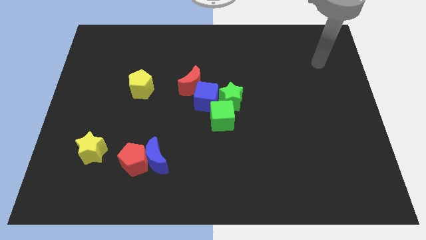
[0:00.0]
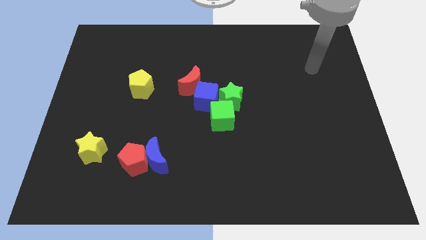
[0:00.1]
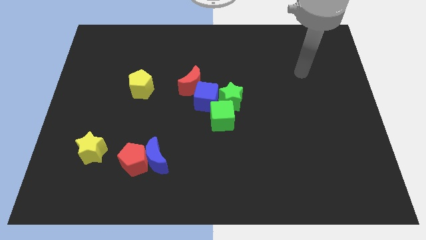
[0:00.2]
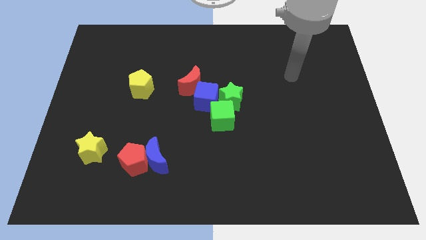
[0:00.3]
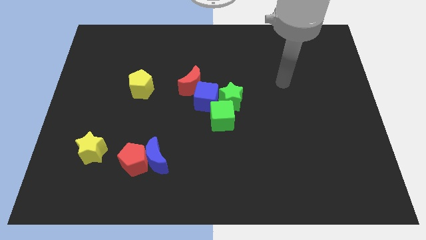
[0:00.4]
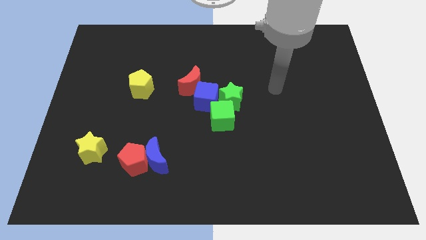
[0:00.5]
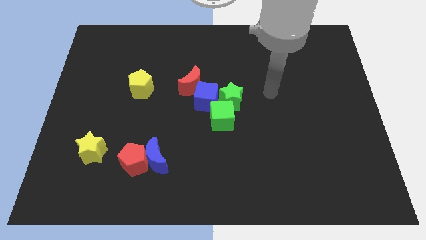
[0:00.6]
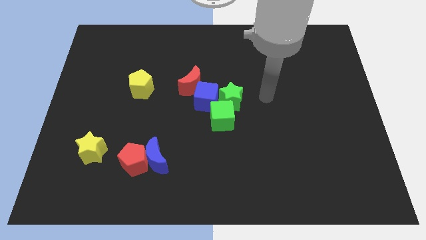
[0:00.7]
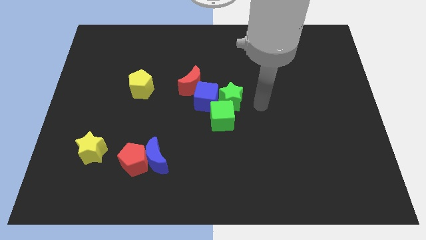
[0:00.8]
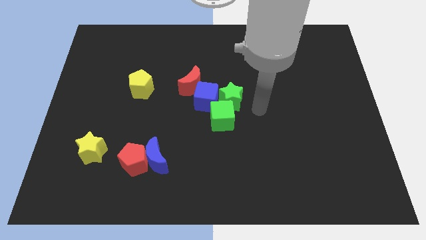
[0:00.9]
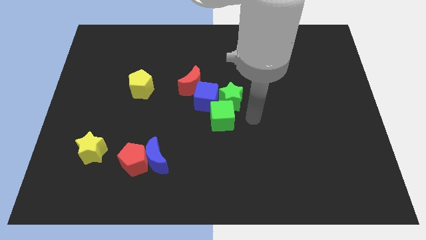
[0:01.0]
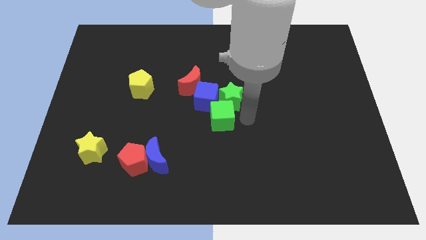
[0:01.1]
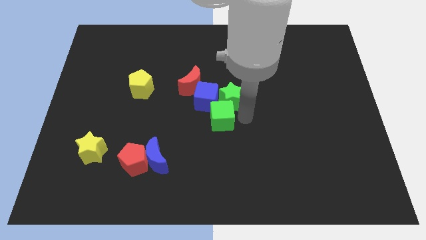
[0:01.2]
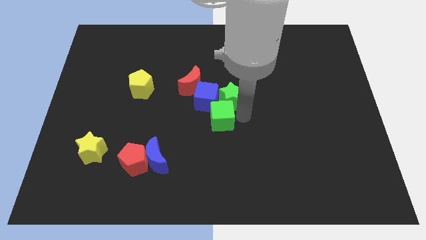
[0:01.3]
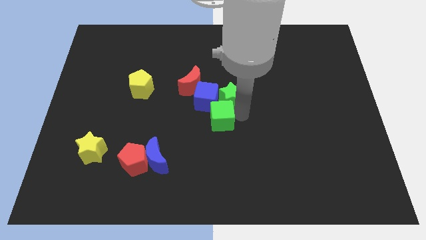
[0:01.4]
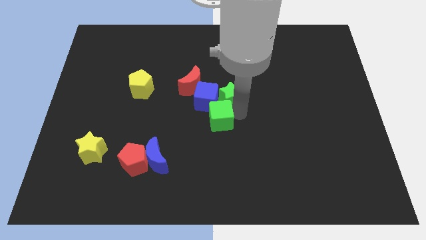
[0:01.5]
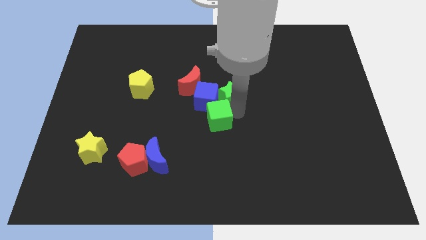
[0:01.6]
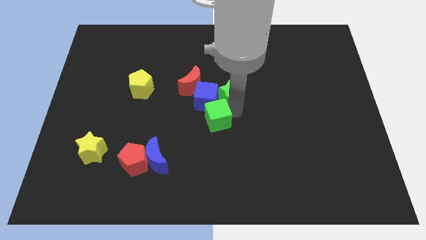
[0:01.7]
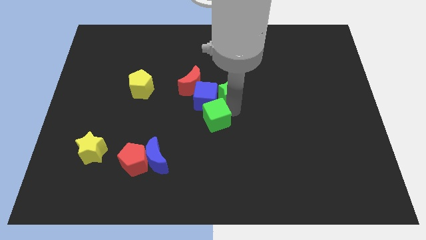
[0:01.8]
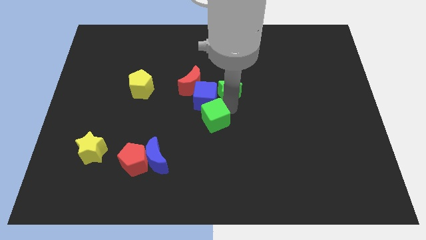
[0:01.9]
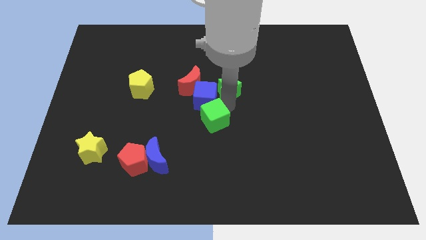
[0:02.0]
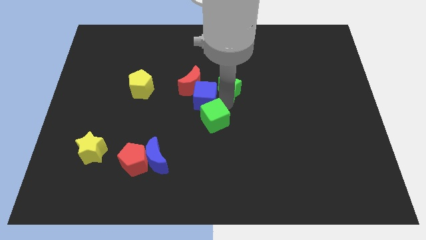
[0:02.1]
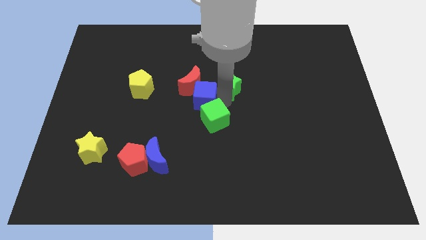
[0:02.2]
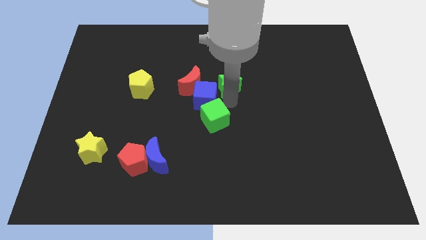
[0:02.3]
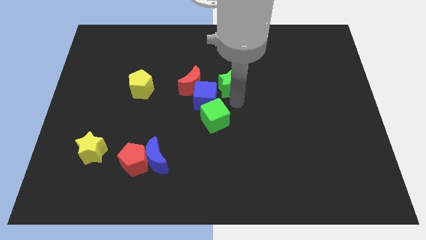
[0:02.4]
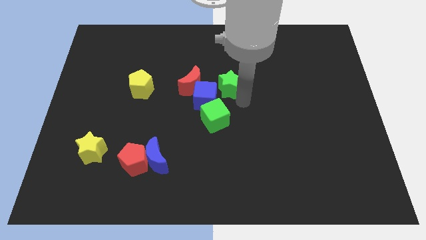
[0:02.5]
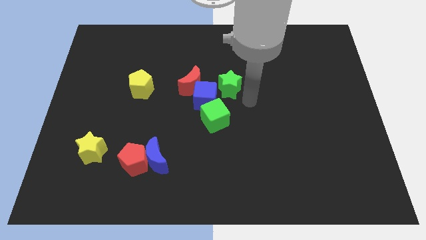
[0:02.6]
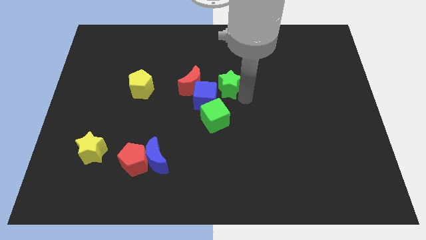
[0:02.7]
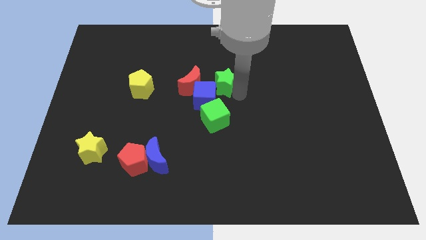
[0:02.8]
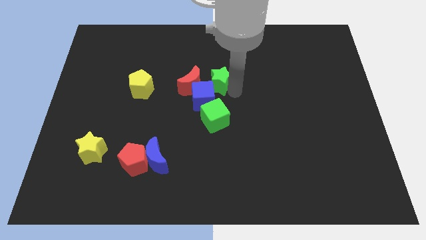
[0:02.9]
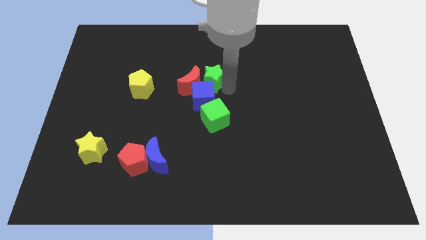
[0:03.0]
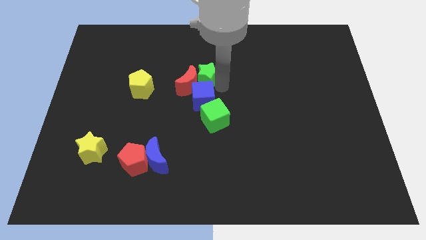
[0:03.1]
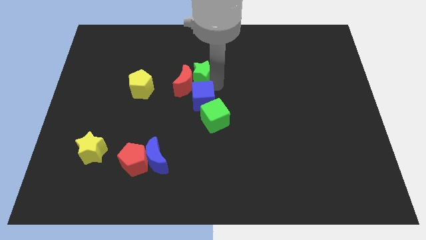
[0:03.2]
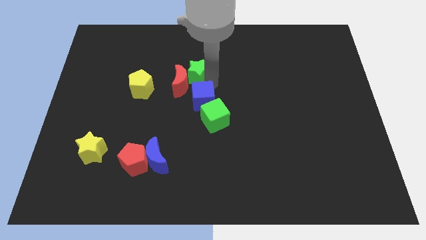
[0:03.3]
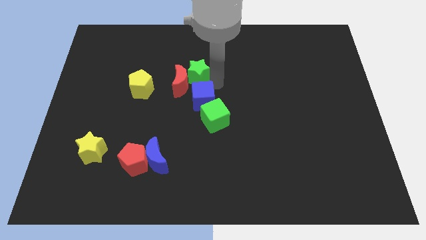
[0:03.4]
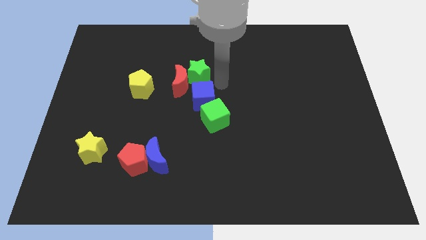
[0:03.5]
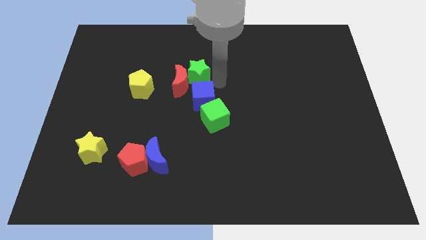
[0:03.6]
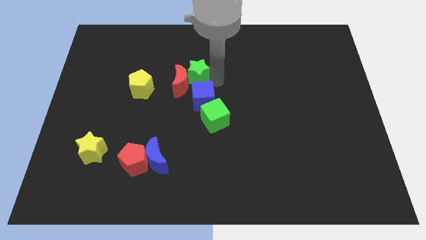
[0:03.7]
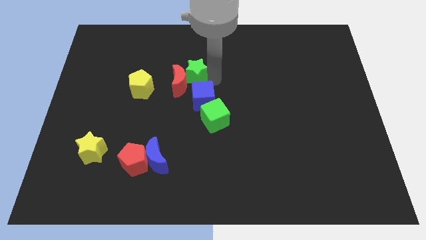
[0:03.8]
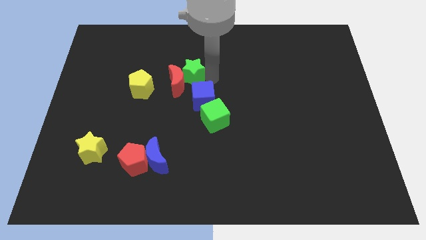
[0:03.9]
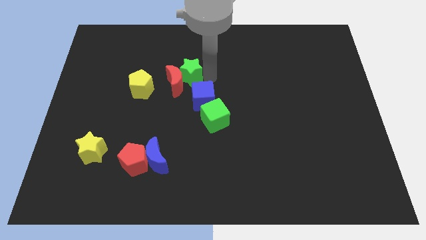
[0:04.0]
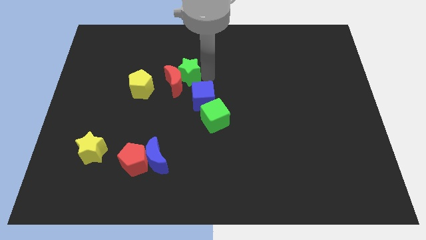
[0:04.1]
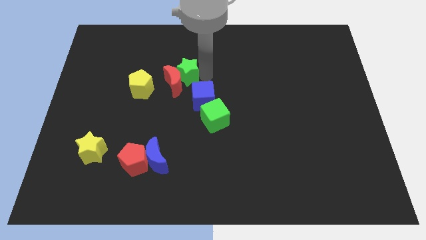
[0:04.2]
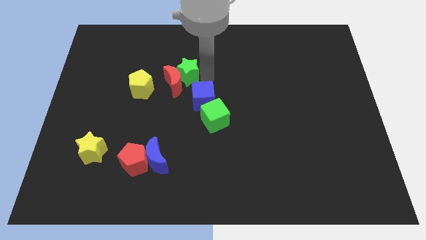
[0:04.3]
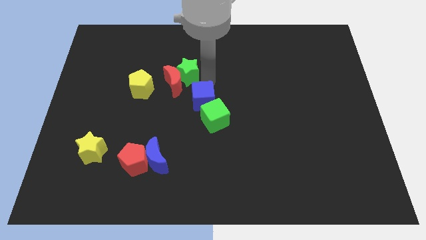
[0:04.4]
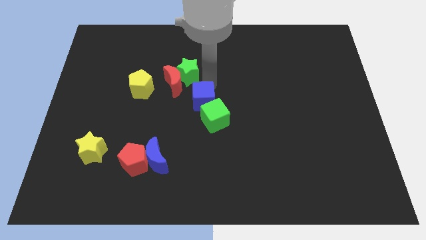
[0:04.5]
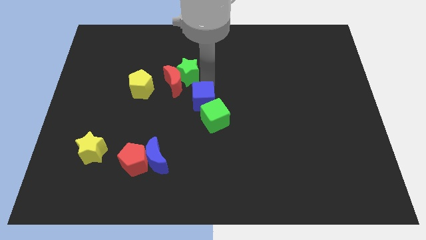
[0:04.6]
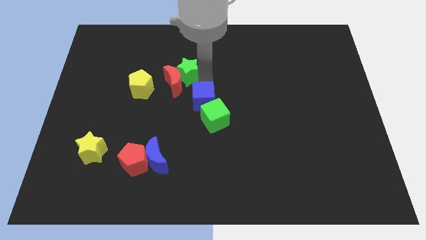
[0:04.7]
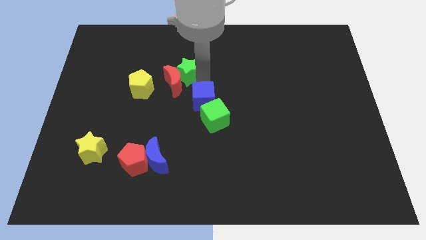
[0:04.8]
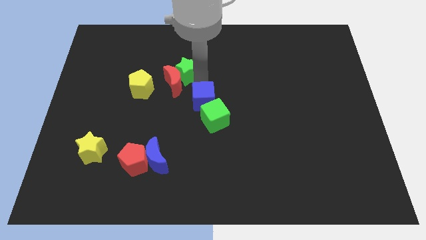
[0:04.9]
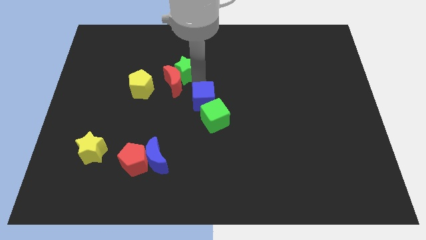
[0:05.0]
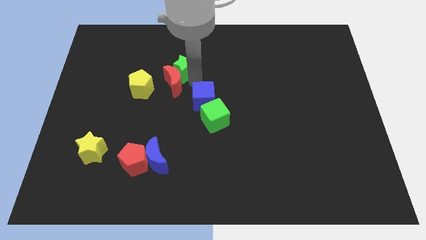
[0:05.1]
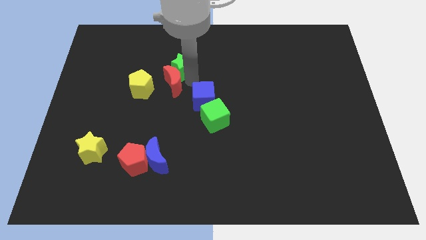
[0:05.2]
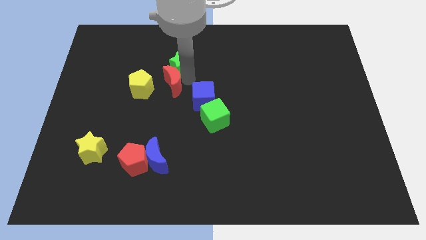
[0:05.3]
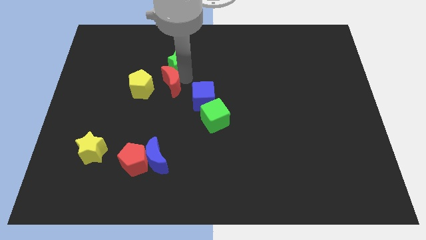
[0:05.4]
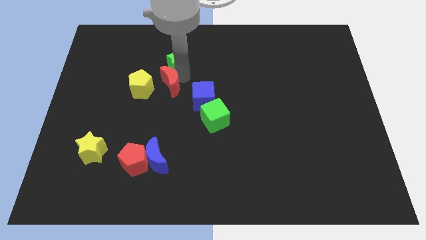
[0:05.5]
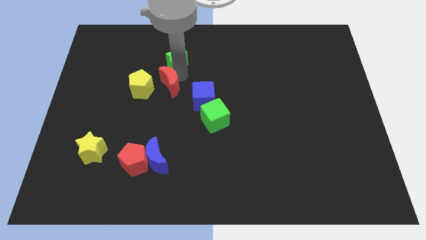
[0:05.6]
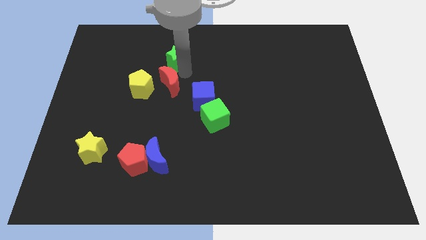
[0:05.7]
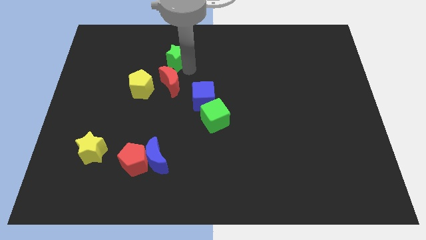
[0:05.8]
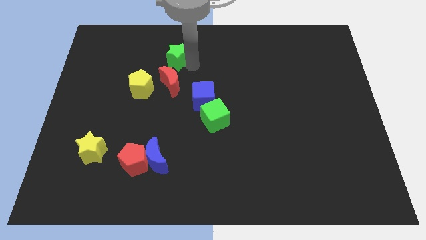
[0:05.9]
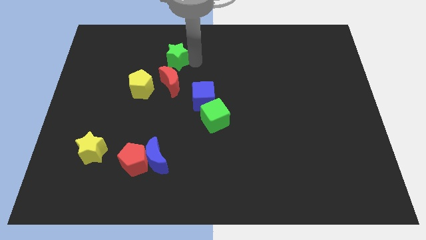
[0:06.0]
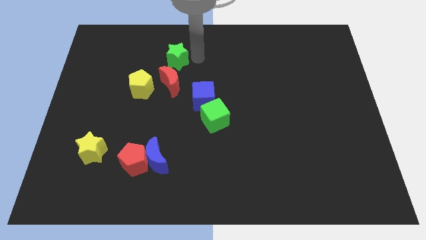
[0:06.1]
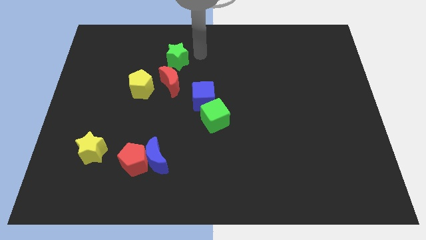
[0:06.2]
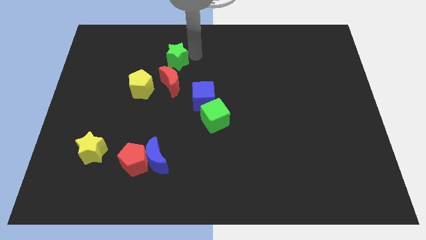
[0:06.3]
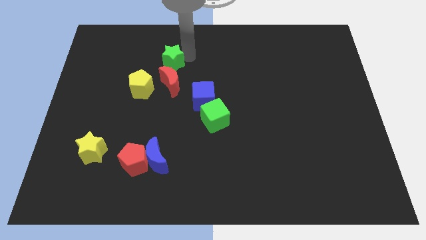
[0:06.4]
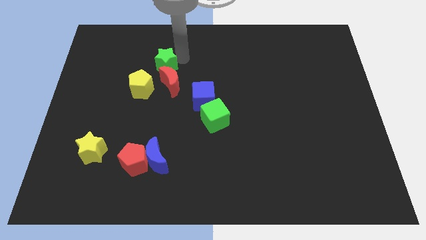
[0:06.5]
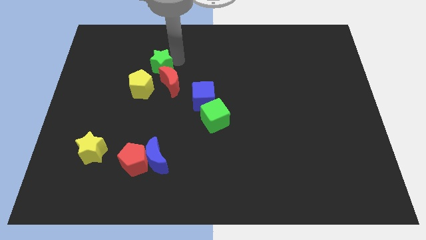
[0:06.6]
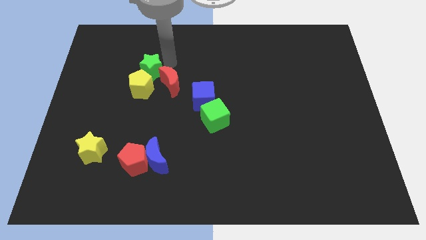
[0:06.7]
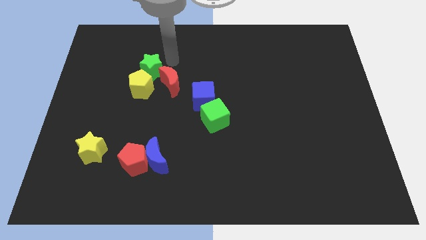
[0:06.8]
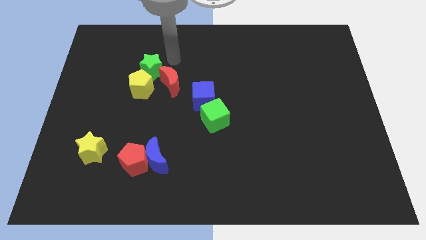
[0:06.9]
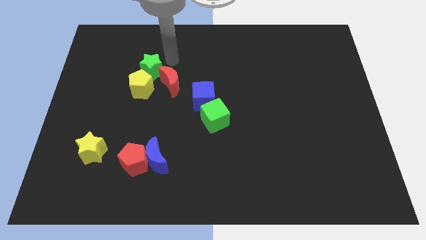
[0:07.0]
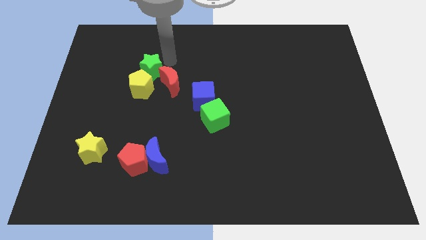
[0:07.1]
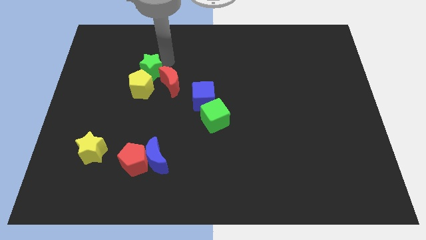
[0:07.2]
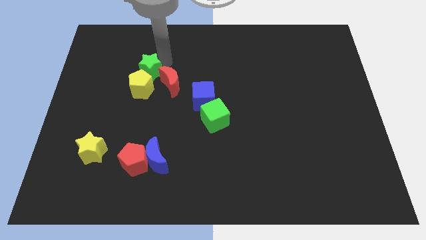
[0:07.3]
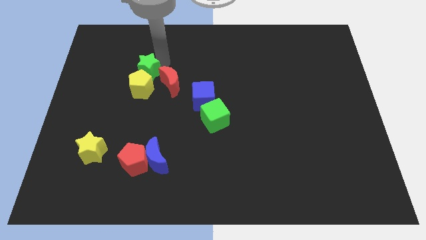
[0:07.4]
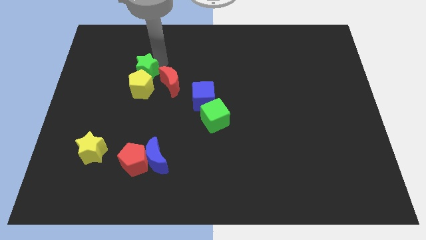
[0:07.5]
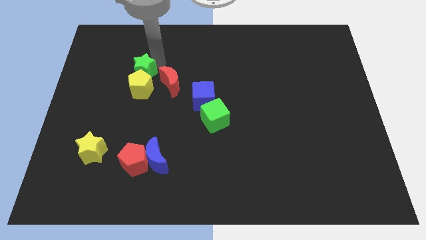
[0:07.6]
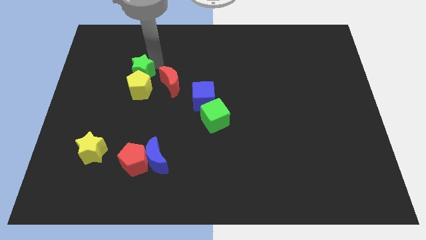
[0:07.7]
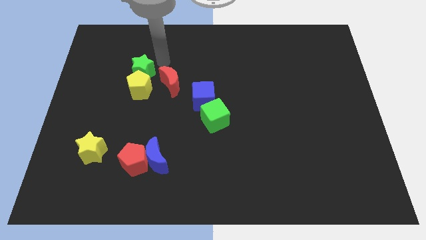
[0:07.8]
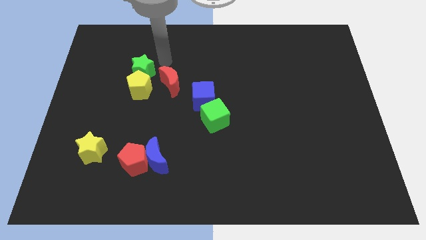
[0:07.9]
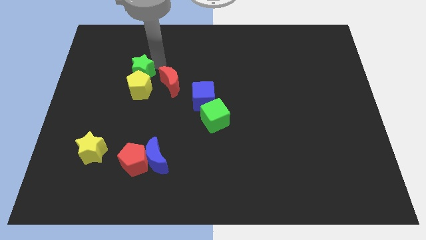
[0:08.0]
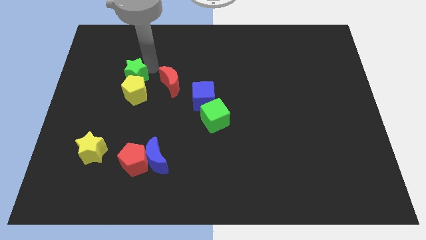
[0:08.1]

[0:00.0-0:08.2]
slide the green star to the left

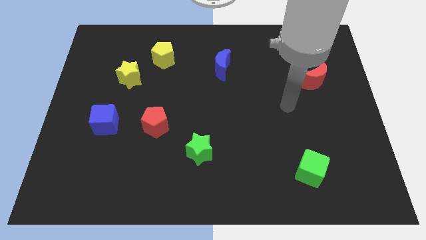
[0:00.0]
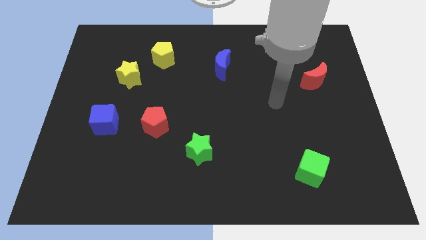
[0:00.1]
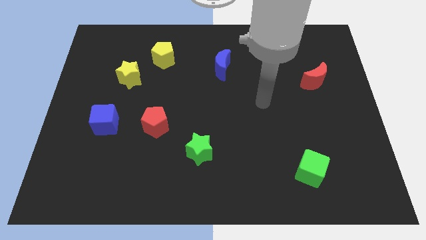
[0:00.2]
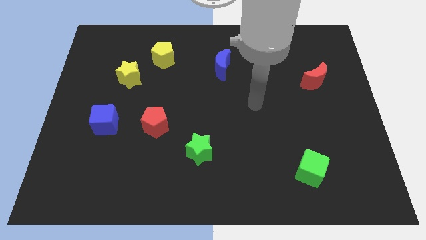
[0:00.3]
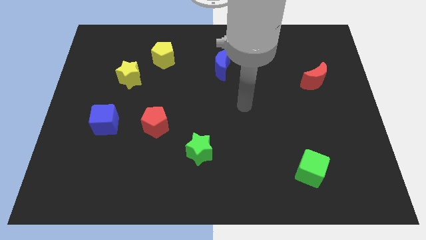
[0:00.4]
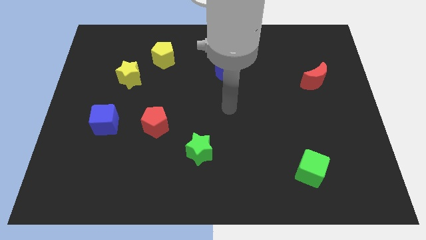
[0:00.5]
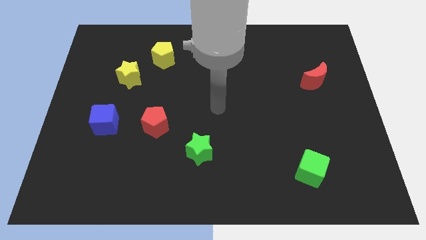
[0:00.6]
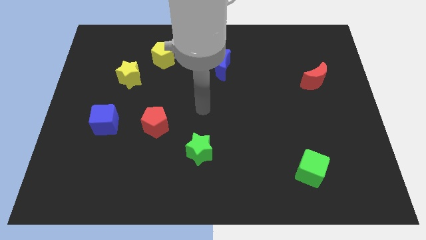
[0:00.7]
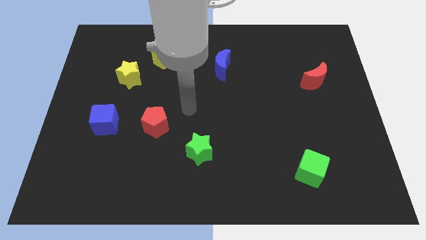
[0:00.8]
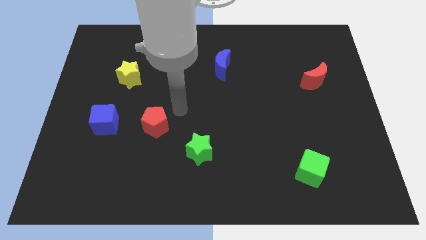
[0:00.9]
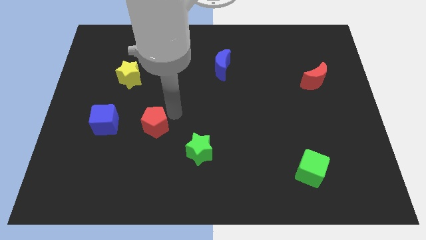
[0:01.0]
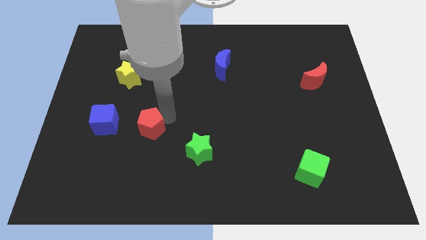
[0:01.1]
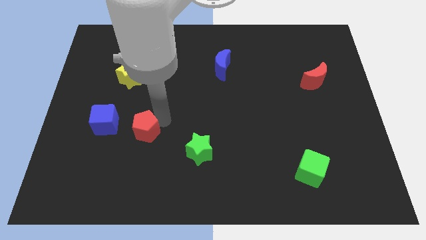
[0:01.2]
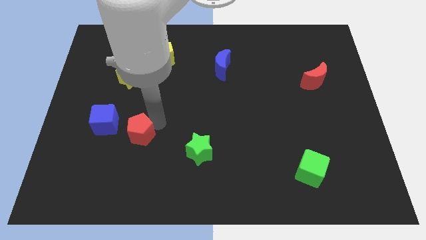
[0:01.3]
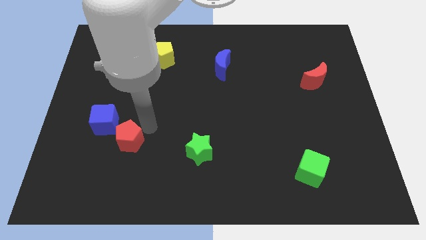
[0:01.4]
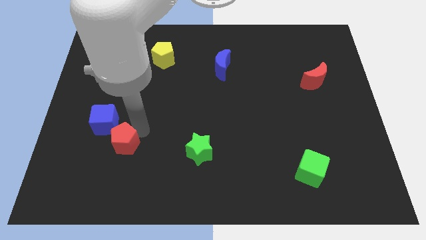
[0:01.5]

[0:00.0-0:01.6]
slide the red pentagon a little down and left
